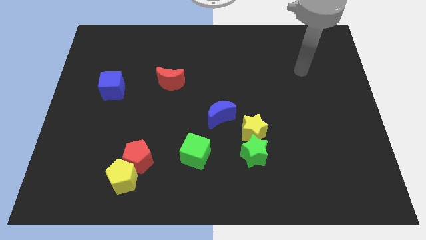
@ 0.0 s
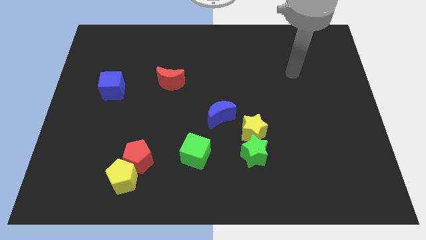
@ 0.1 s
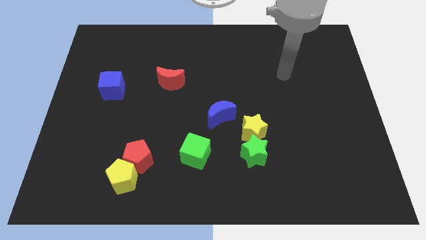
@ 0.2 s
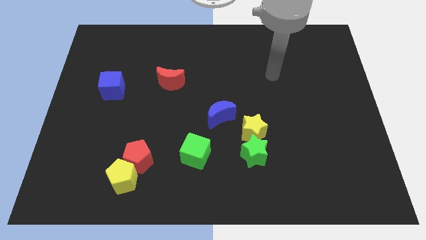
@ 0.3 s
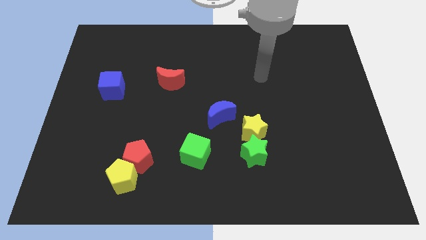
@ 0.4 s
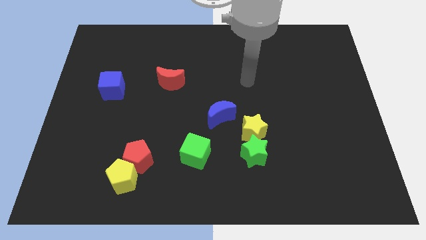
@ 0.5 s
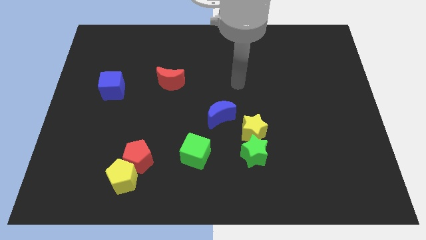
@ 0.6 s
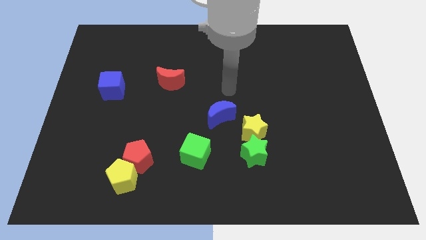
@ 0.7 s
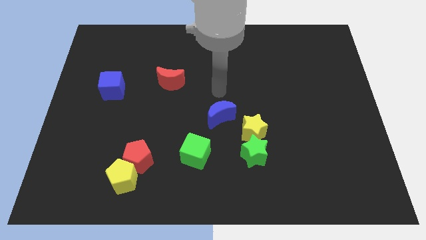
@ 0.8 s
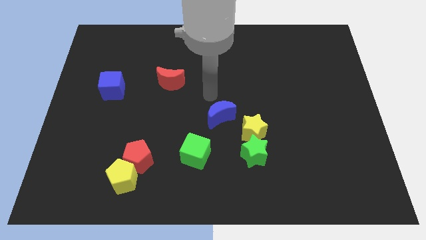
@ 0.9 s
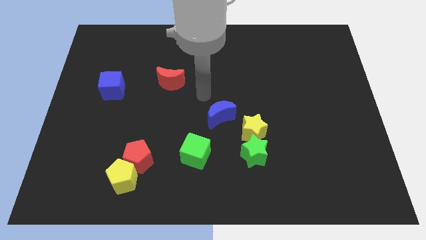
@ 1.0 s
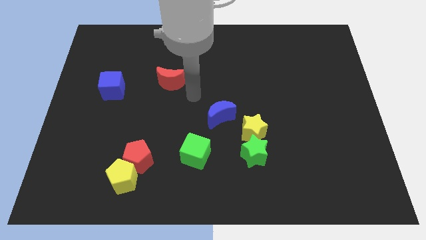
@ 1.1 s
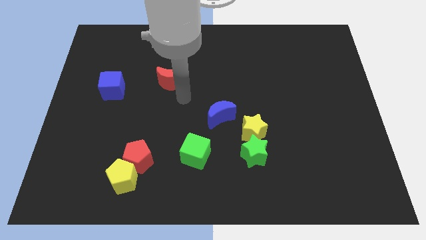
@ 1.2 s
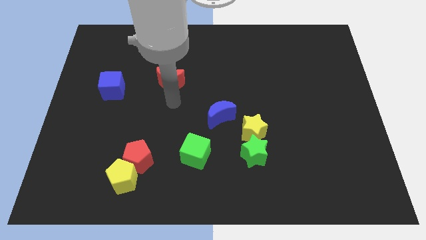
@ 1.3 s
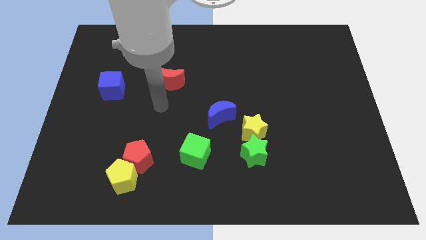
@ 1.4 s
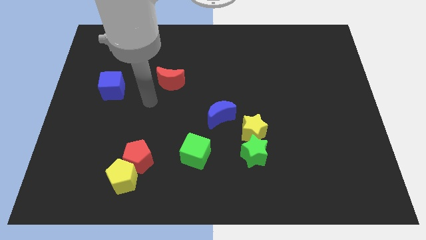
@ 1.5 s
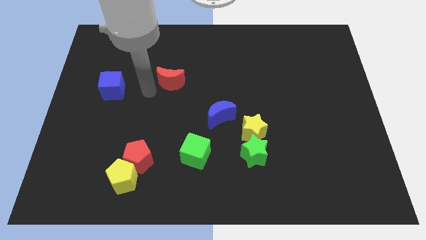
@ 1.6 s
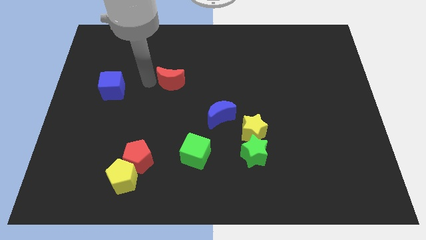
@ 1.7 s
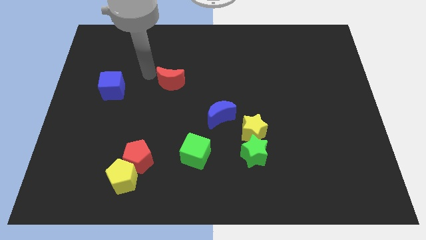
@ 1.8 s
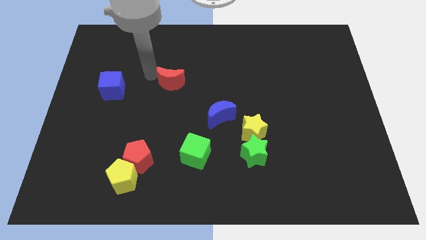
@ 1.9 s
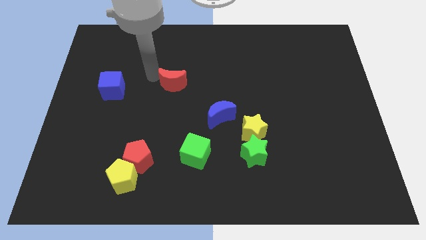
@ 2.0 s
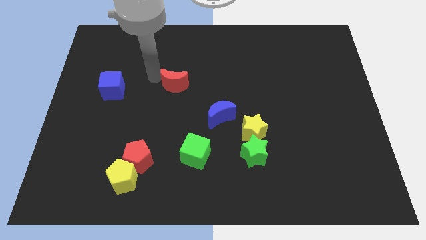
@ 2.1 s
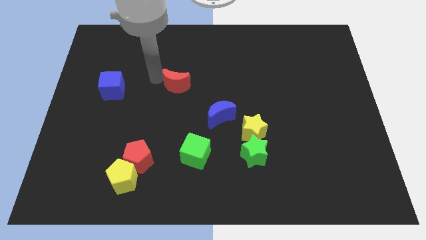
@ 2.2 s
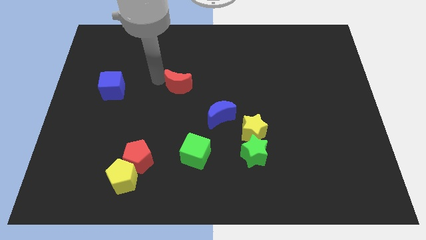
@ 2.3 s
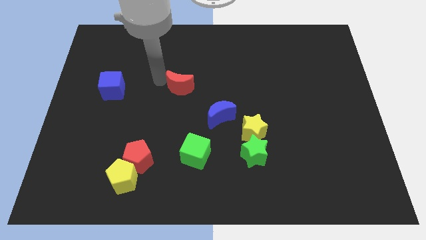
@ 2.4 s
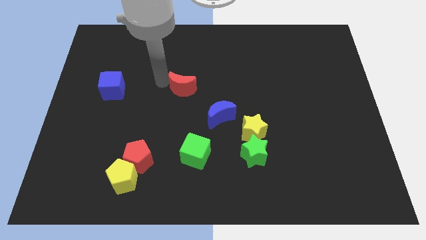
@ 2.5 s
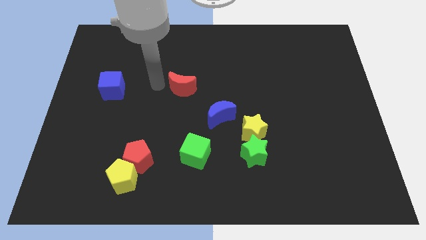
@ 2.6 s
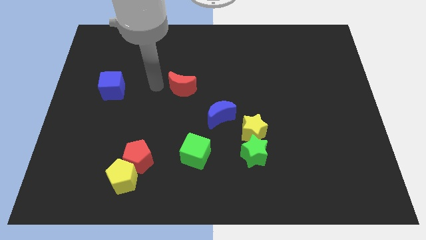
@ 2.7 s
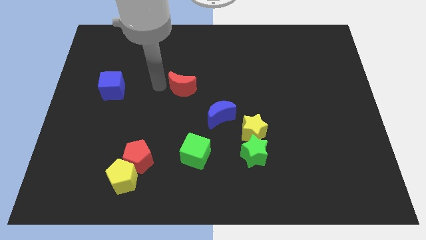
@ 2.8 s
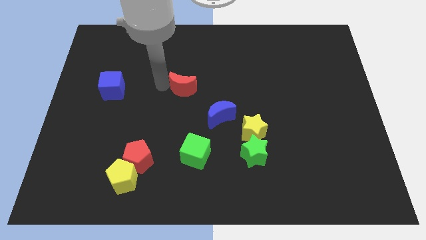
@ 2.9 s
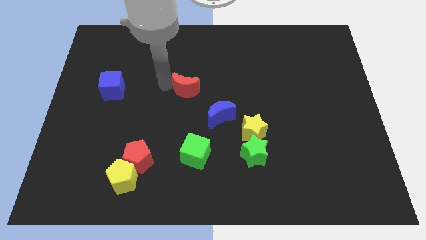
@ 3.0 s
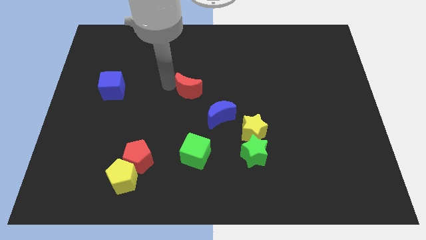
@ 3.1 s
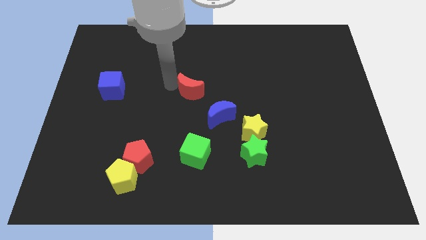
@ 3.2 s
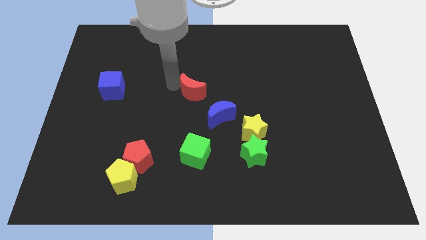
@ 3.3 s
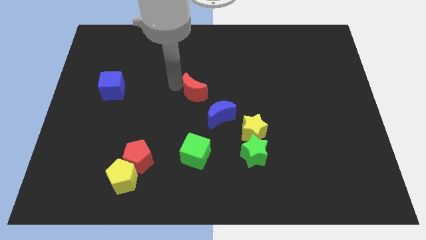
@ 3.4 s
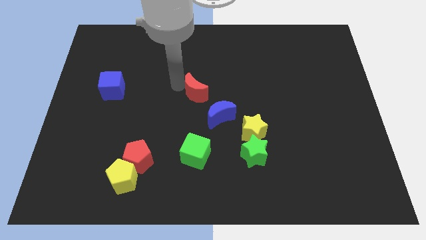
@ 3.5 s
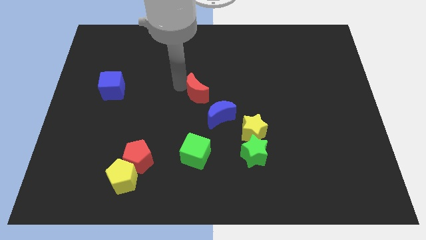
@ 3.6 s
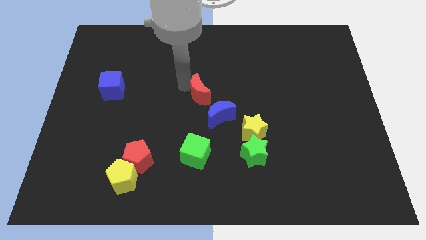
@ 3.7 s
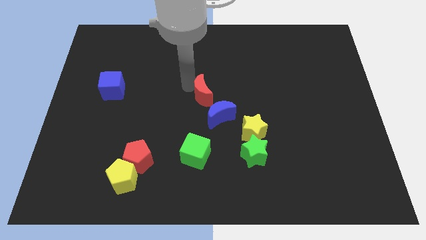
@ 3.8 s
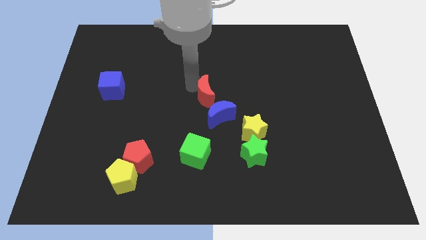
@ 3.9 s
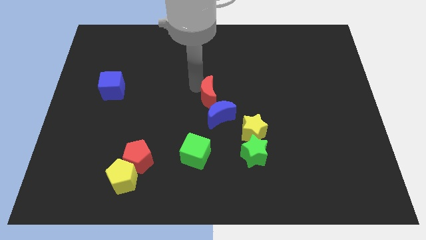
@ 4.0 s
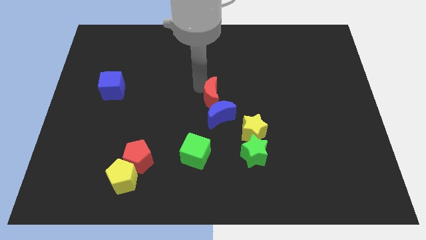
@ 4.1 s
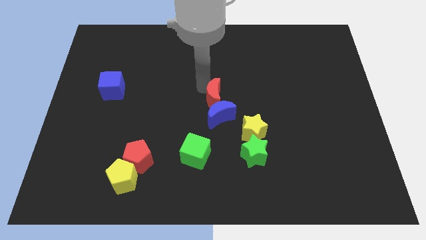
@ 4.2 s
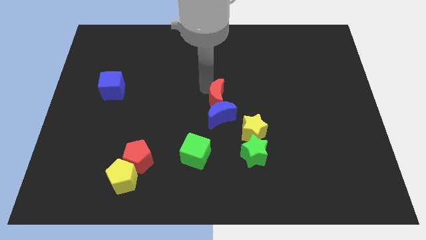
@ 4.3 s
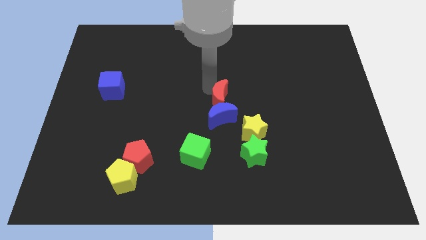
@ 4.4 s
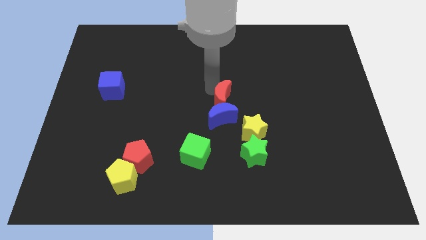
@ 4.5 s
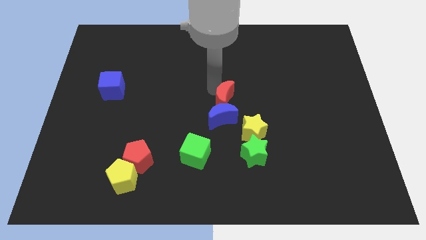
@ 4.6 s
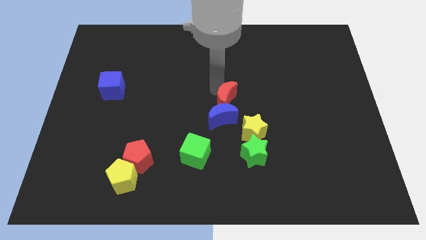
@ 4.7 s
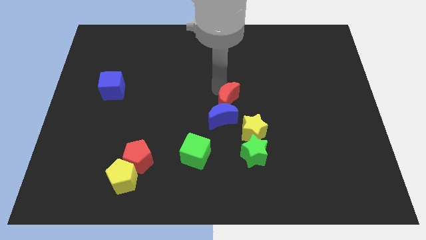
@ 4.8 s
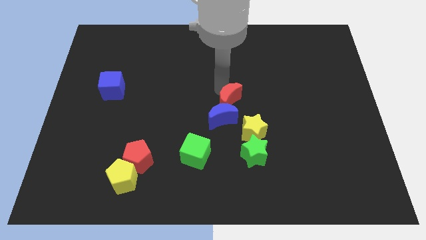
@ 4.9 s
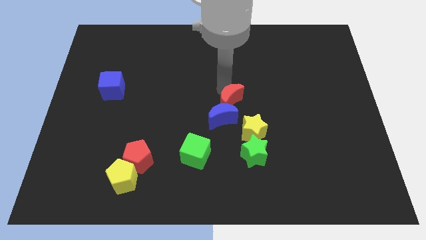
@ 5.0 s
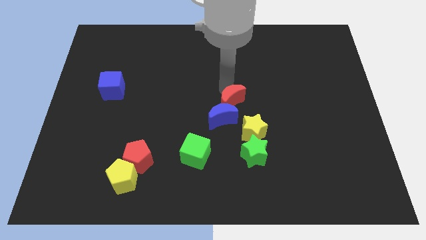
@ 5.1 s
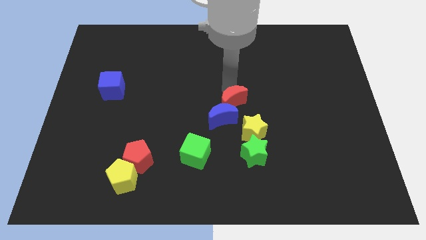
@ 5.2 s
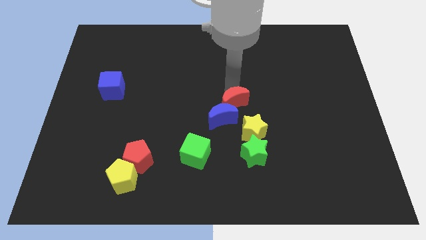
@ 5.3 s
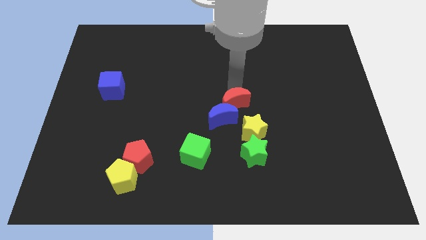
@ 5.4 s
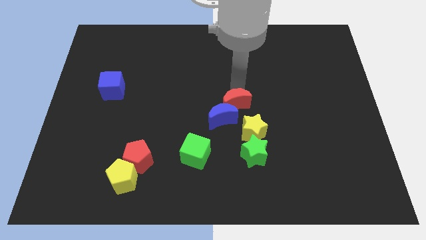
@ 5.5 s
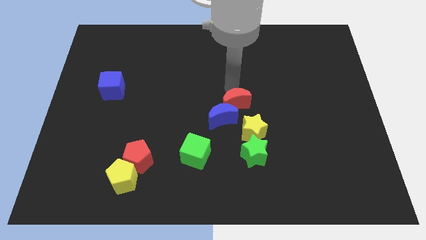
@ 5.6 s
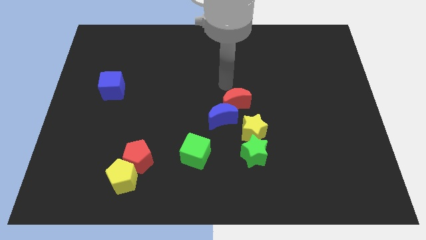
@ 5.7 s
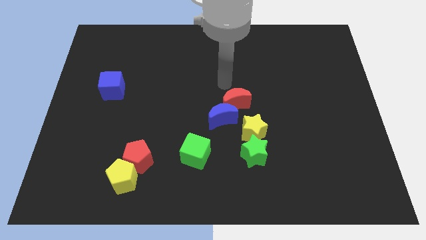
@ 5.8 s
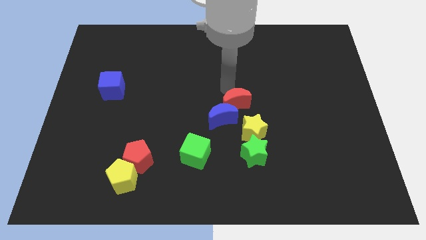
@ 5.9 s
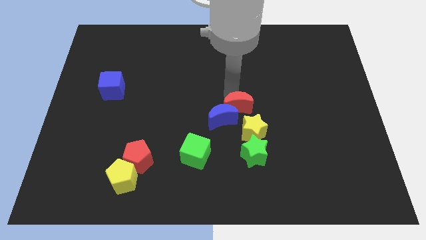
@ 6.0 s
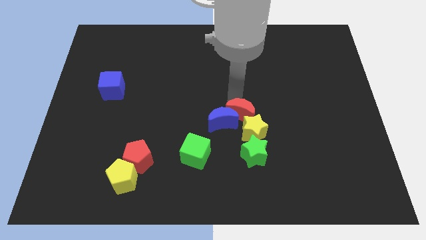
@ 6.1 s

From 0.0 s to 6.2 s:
push the red moon towards the yellow star

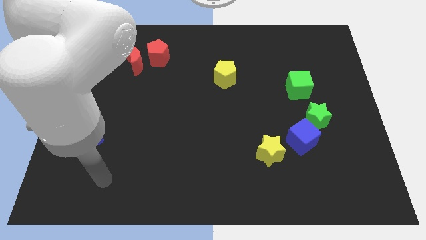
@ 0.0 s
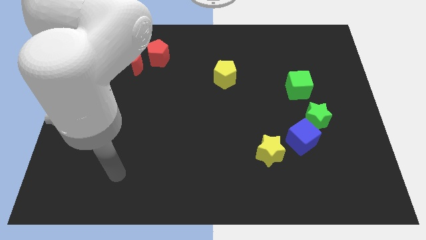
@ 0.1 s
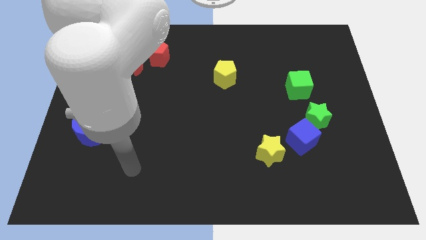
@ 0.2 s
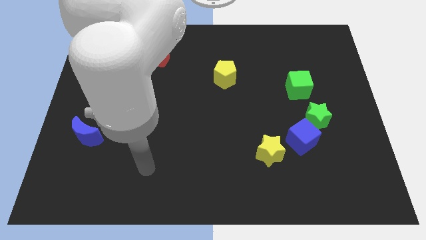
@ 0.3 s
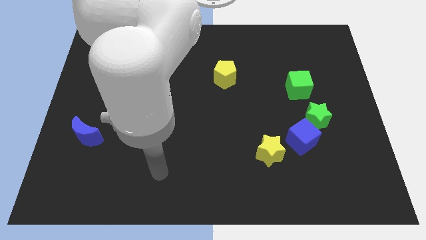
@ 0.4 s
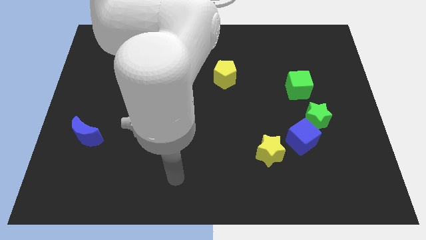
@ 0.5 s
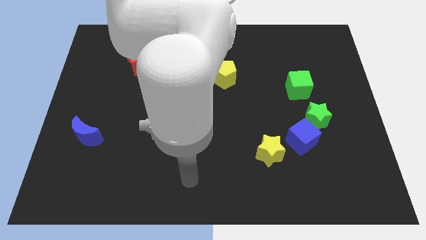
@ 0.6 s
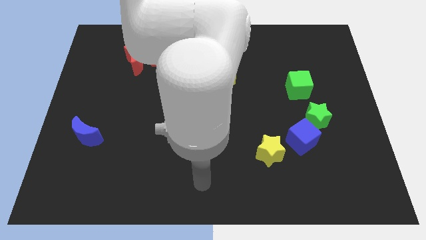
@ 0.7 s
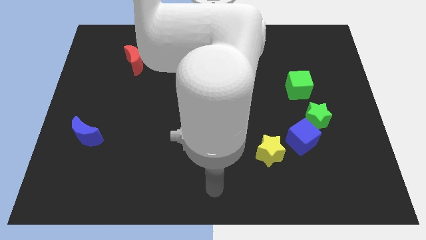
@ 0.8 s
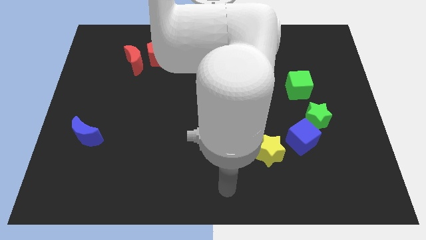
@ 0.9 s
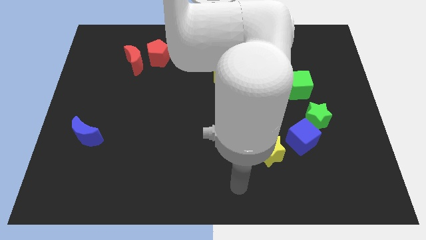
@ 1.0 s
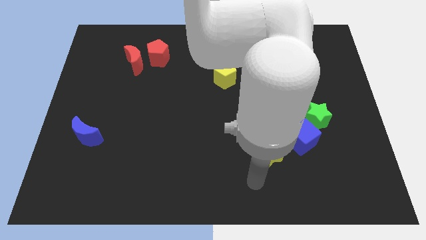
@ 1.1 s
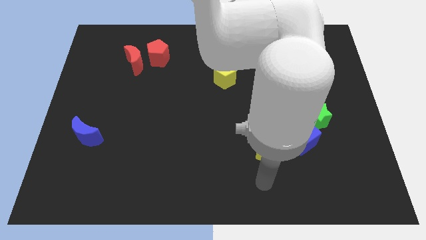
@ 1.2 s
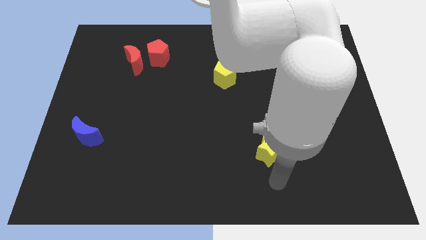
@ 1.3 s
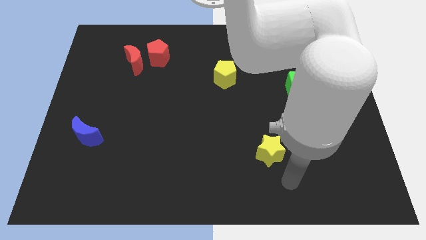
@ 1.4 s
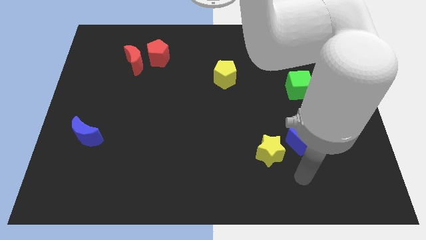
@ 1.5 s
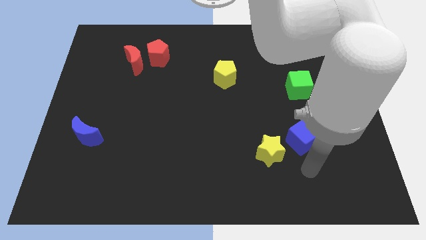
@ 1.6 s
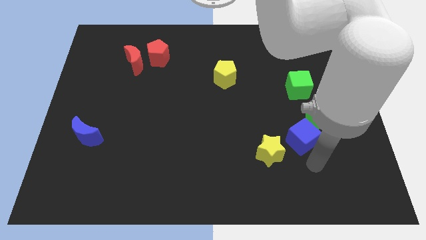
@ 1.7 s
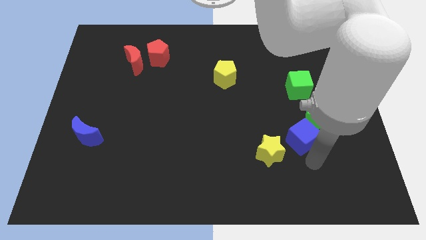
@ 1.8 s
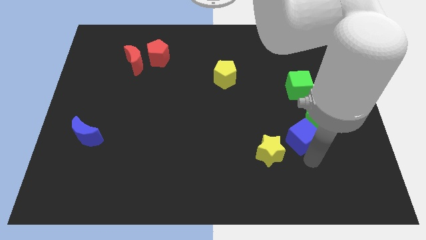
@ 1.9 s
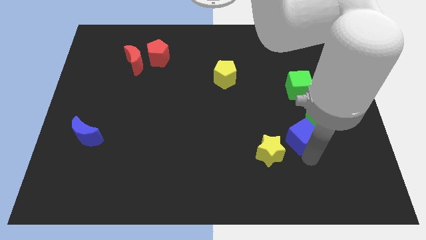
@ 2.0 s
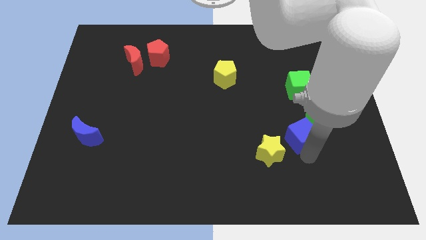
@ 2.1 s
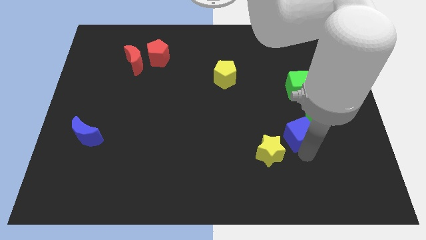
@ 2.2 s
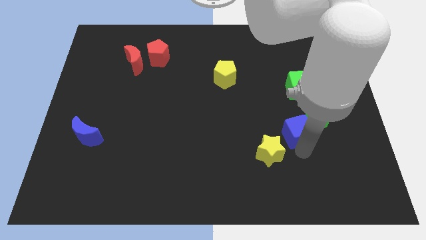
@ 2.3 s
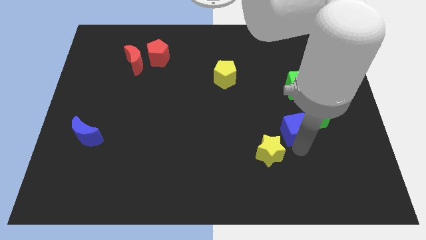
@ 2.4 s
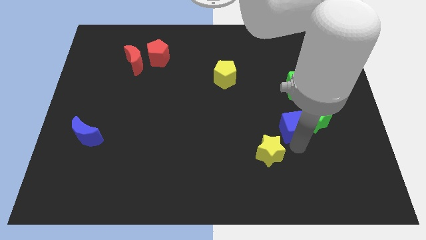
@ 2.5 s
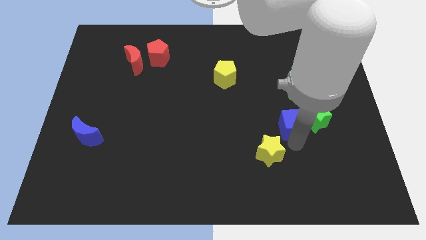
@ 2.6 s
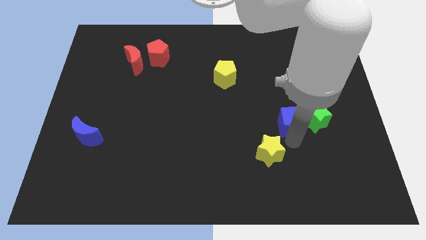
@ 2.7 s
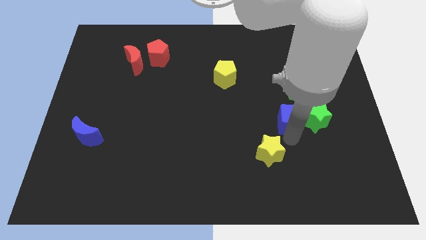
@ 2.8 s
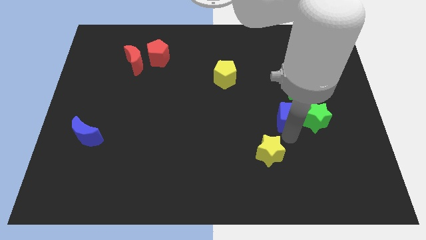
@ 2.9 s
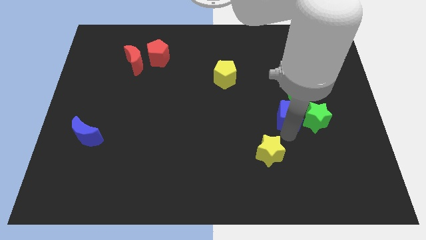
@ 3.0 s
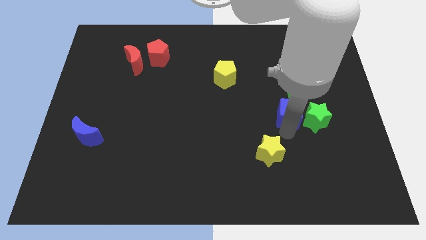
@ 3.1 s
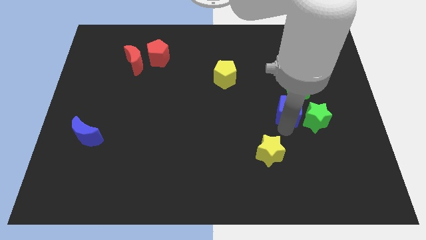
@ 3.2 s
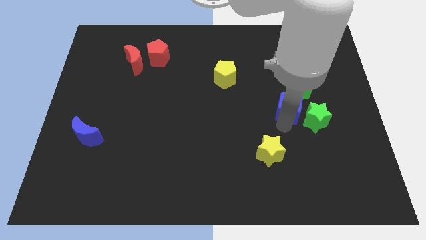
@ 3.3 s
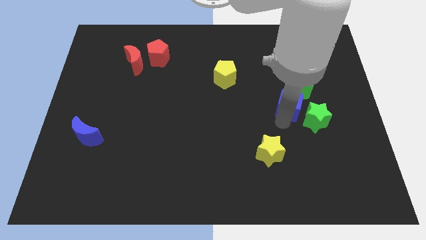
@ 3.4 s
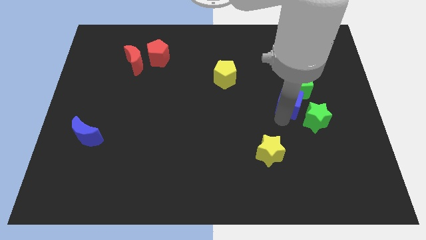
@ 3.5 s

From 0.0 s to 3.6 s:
move the blue cube towards the green cube
